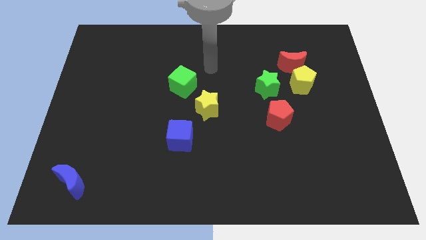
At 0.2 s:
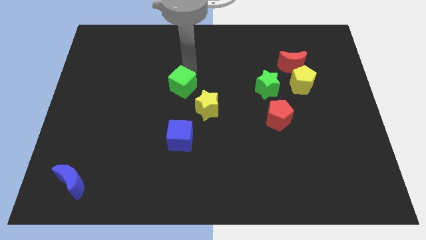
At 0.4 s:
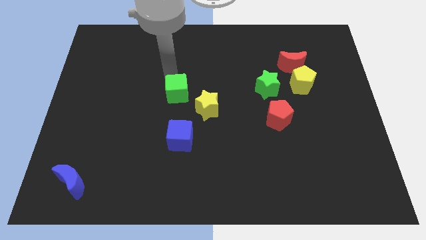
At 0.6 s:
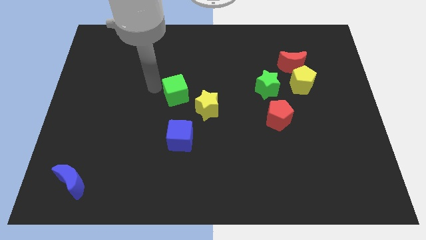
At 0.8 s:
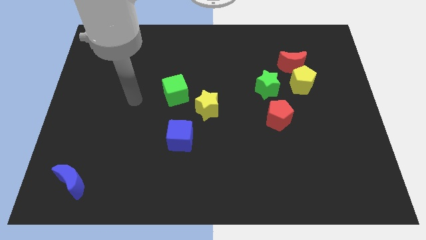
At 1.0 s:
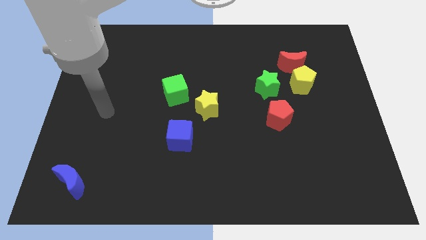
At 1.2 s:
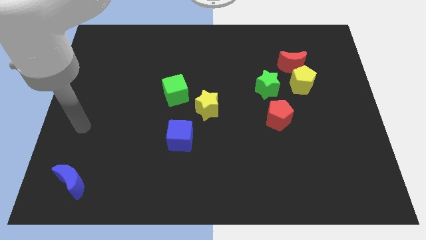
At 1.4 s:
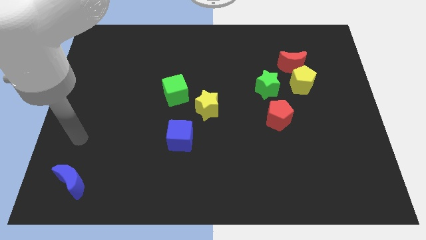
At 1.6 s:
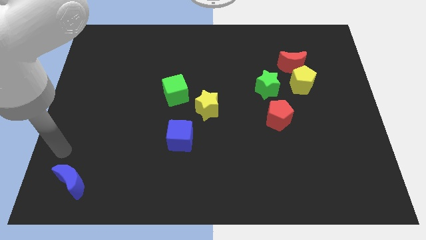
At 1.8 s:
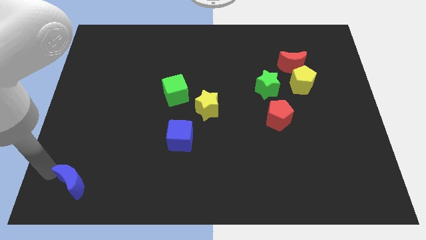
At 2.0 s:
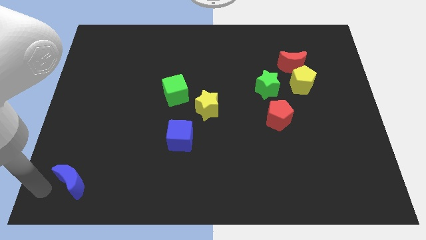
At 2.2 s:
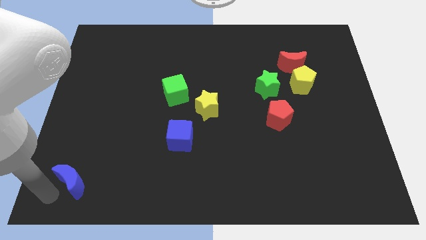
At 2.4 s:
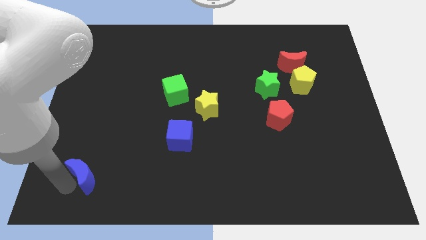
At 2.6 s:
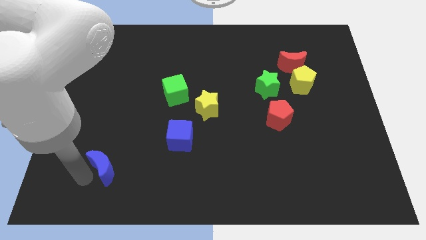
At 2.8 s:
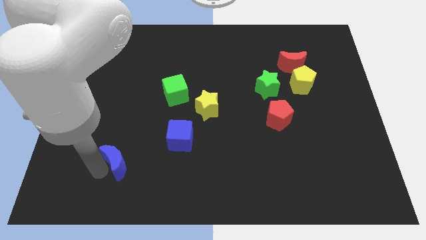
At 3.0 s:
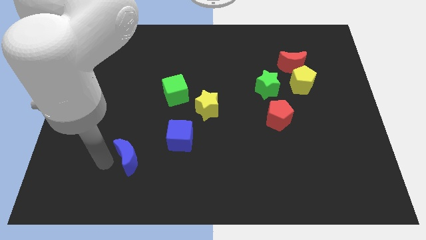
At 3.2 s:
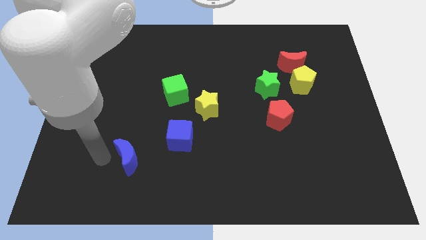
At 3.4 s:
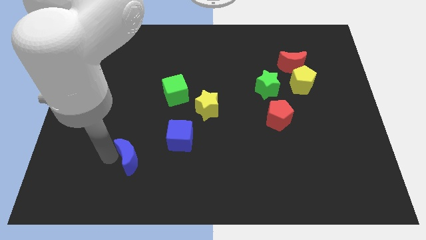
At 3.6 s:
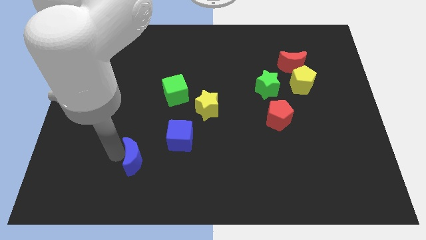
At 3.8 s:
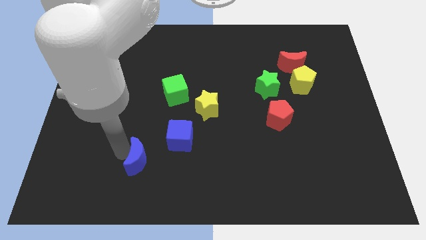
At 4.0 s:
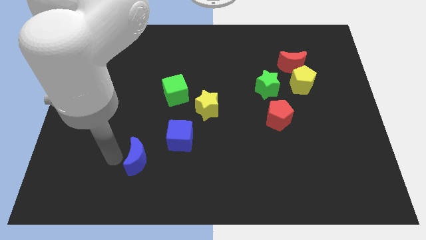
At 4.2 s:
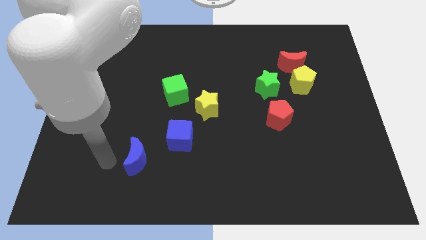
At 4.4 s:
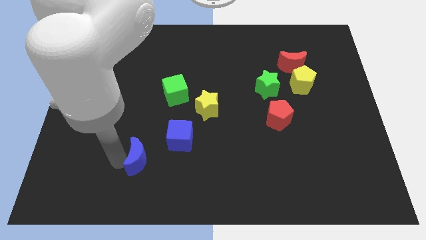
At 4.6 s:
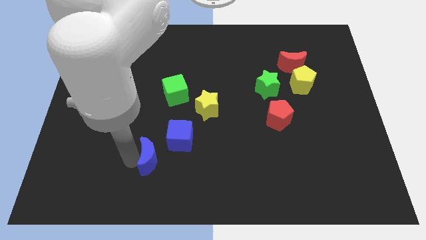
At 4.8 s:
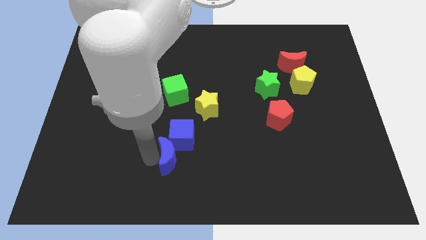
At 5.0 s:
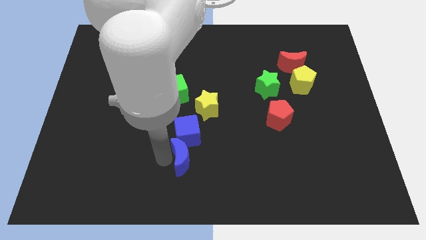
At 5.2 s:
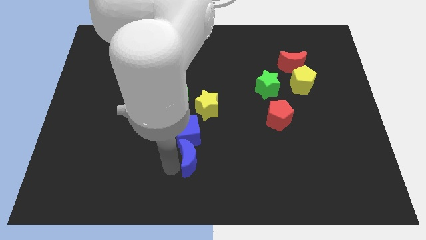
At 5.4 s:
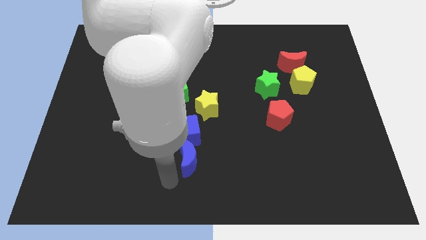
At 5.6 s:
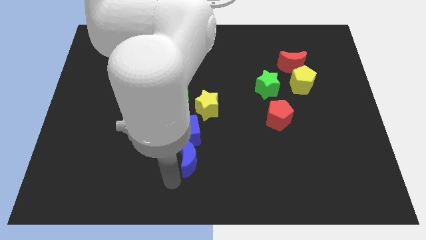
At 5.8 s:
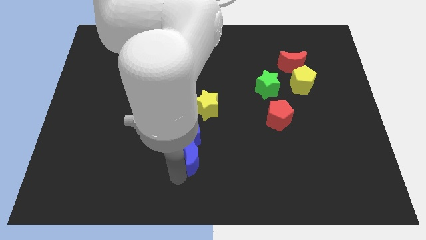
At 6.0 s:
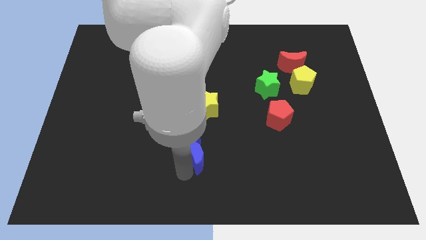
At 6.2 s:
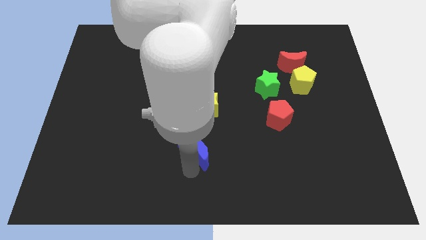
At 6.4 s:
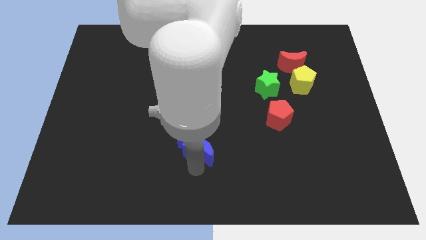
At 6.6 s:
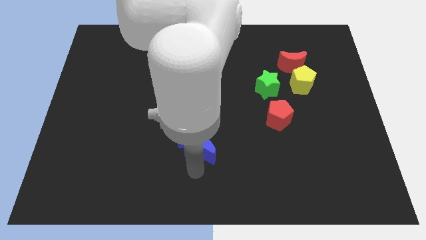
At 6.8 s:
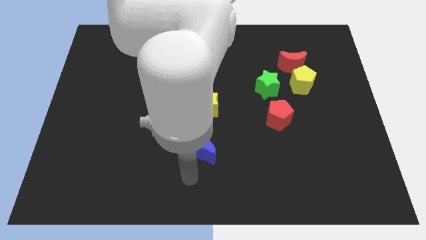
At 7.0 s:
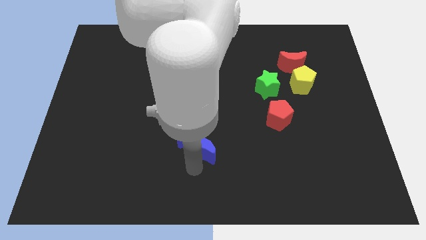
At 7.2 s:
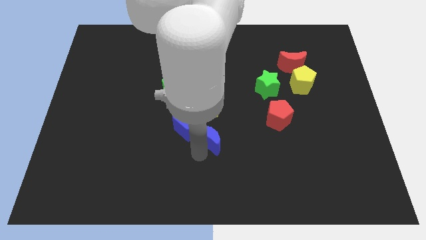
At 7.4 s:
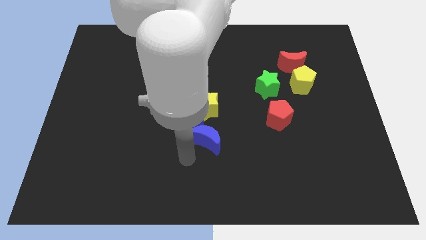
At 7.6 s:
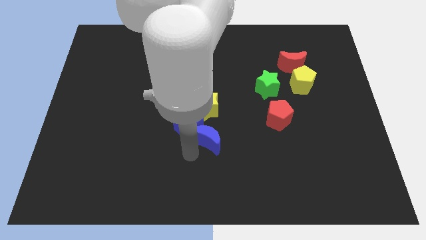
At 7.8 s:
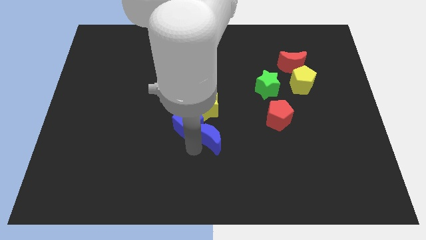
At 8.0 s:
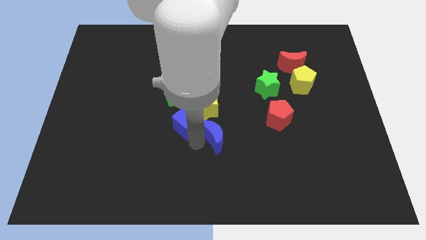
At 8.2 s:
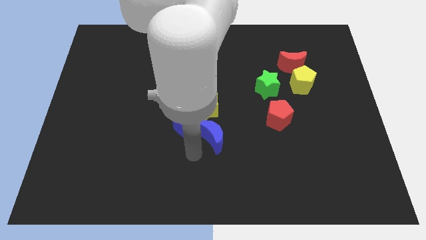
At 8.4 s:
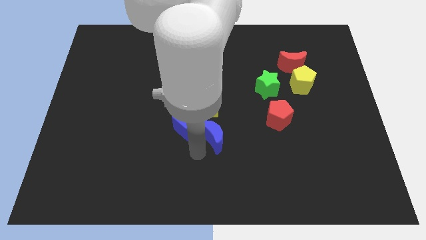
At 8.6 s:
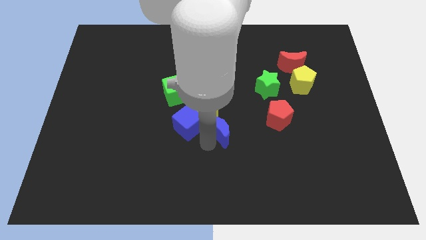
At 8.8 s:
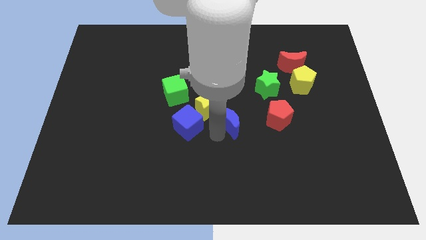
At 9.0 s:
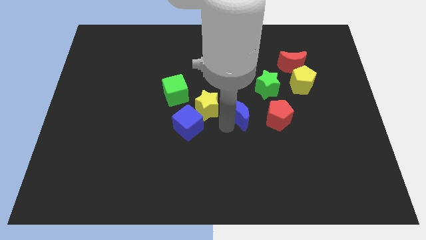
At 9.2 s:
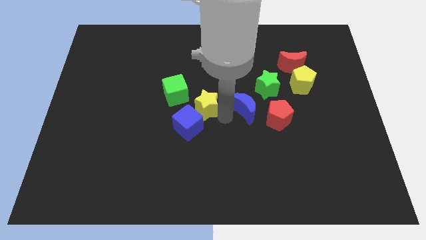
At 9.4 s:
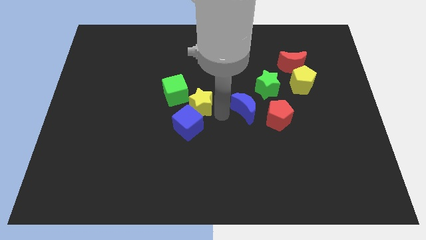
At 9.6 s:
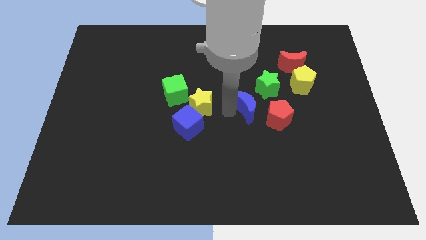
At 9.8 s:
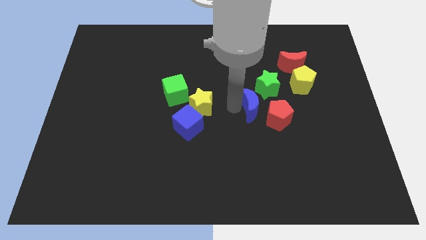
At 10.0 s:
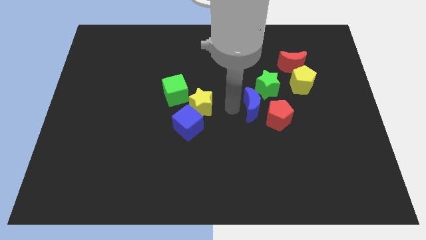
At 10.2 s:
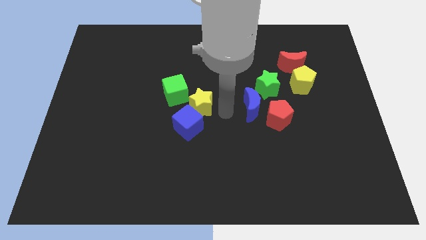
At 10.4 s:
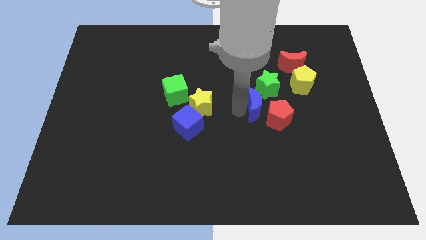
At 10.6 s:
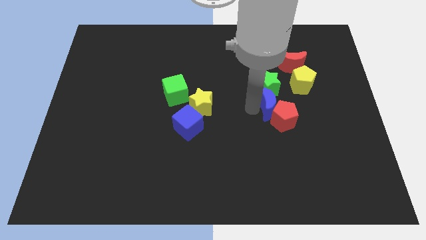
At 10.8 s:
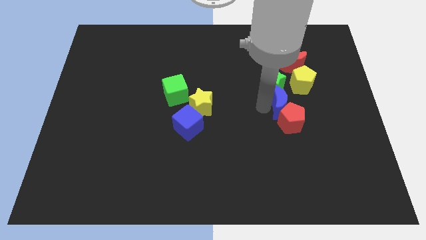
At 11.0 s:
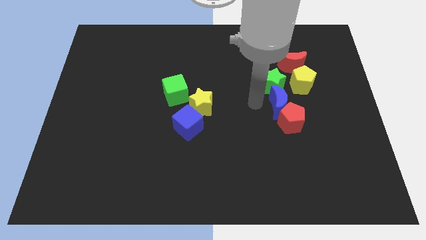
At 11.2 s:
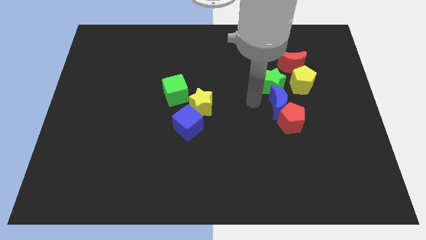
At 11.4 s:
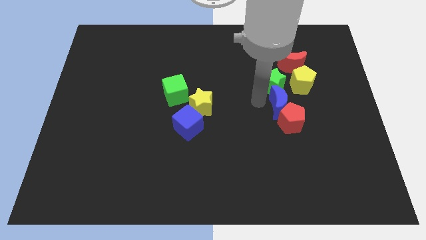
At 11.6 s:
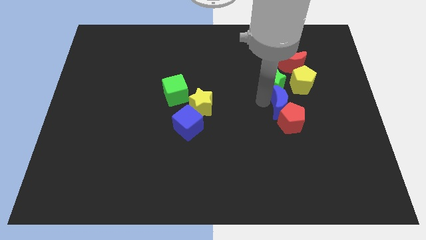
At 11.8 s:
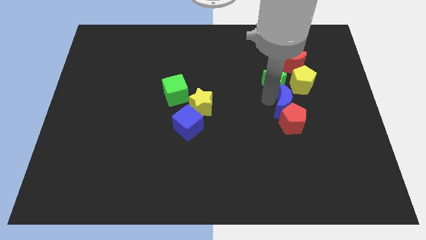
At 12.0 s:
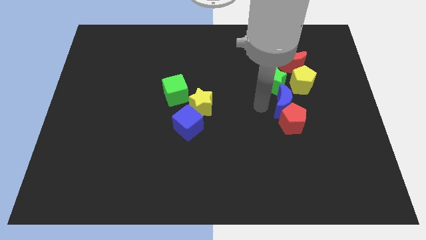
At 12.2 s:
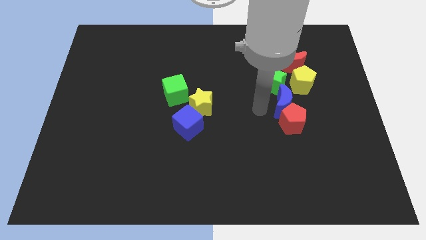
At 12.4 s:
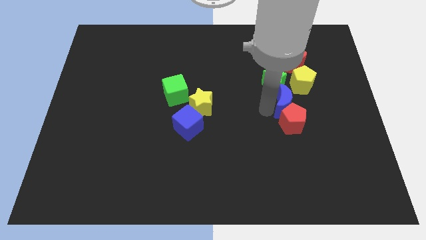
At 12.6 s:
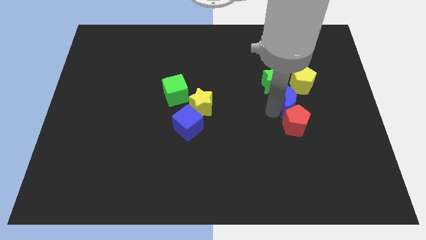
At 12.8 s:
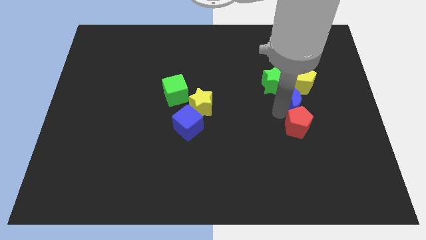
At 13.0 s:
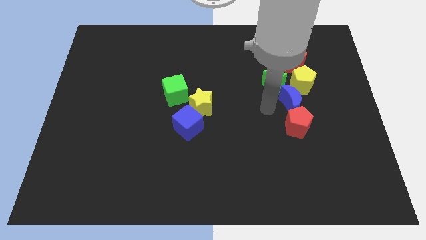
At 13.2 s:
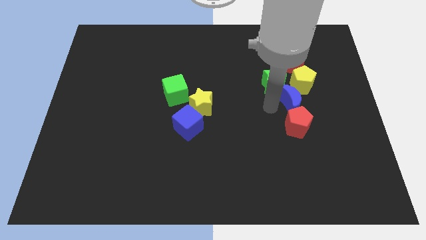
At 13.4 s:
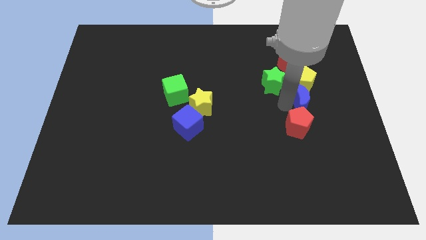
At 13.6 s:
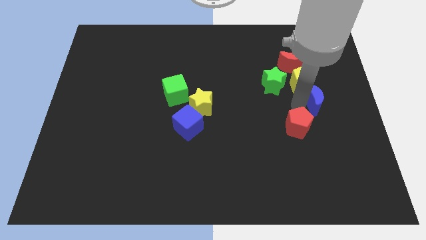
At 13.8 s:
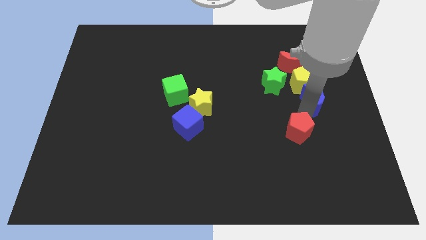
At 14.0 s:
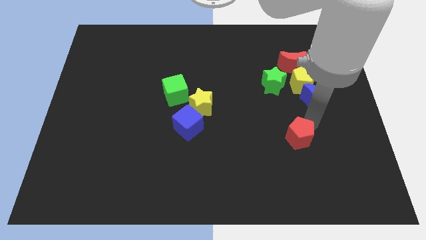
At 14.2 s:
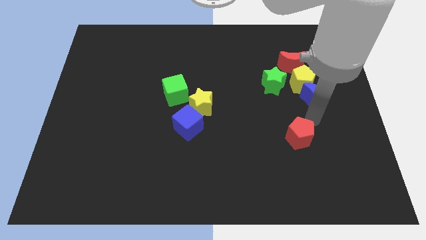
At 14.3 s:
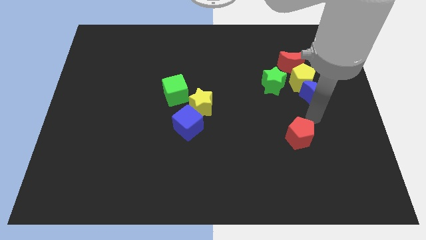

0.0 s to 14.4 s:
move the blue moon just right of the green star

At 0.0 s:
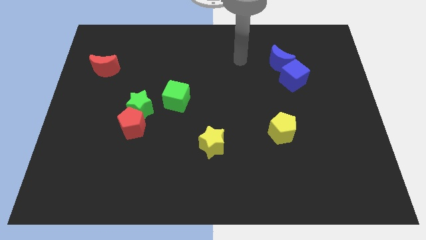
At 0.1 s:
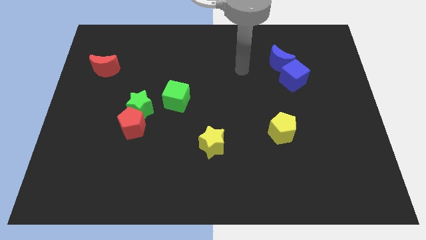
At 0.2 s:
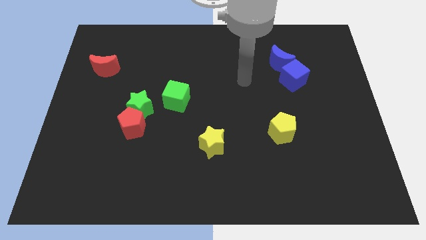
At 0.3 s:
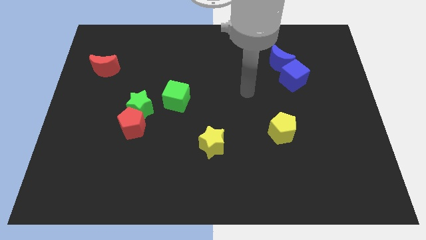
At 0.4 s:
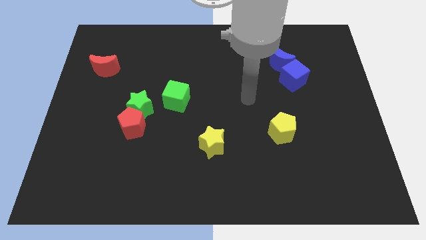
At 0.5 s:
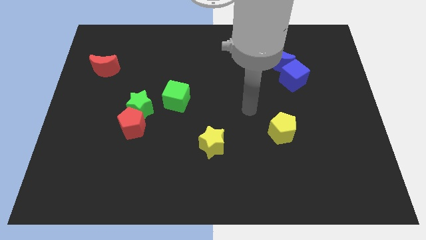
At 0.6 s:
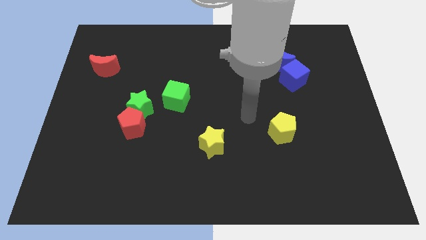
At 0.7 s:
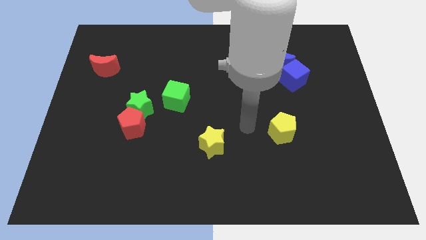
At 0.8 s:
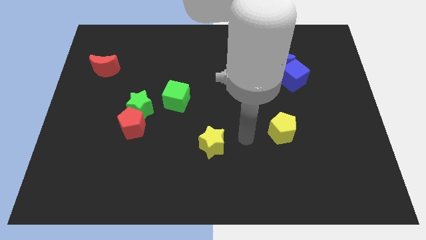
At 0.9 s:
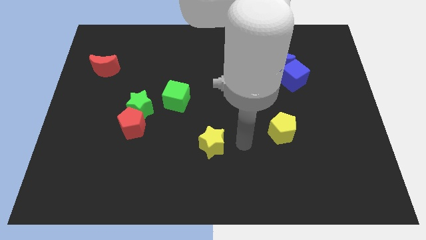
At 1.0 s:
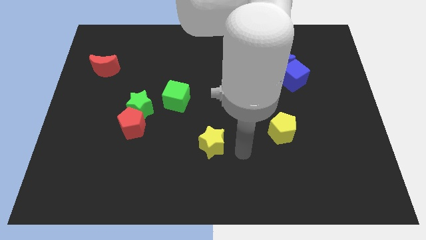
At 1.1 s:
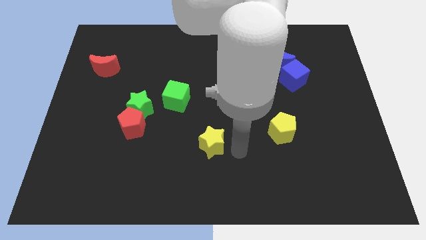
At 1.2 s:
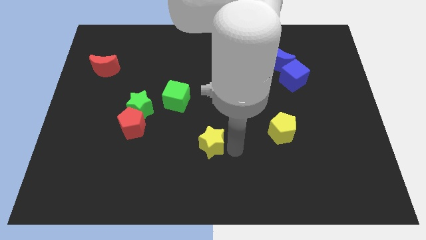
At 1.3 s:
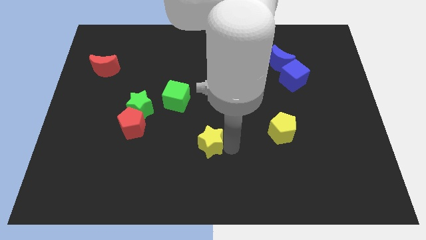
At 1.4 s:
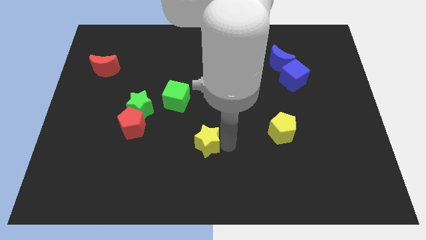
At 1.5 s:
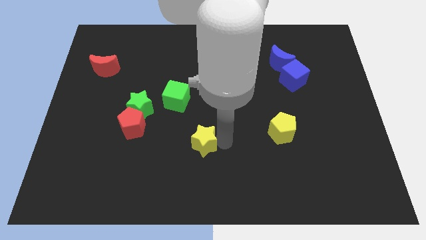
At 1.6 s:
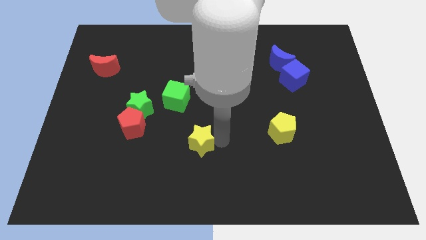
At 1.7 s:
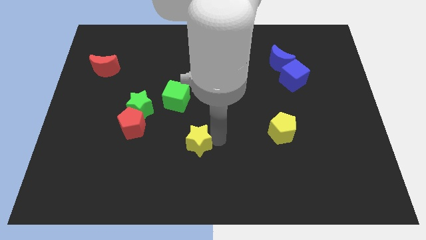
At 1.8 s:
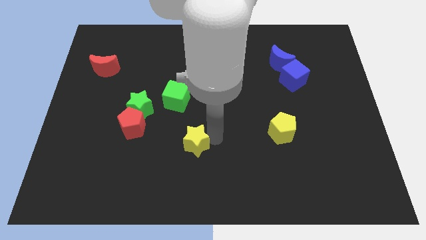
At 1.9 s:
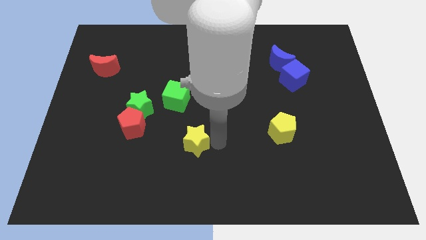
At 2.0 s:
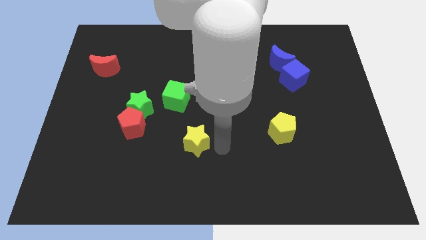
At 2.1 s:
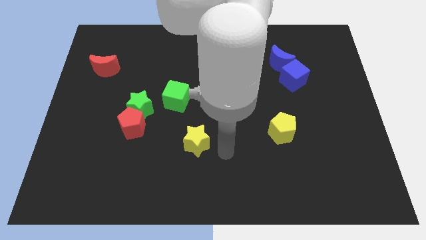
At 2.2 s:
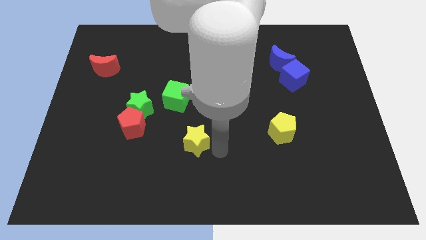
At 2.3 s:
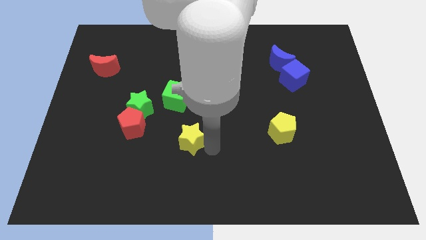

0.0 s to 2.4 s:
put the yellow star to the bottom of the green cube
